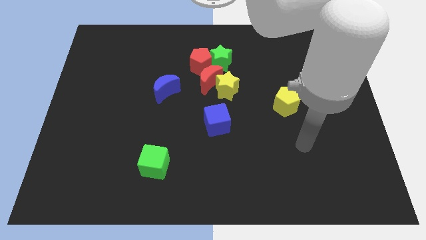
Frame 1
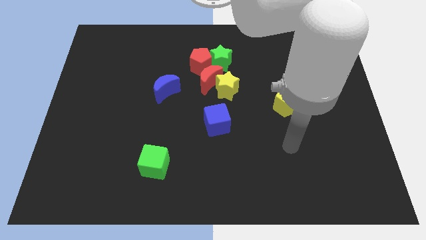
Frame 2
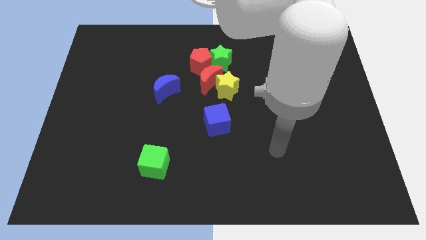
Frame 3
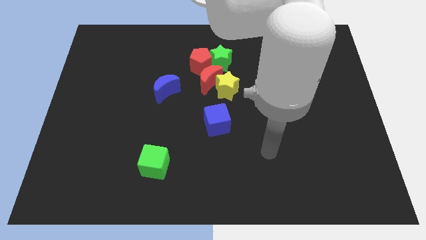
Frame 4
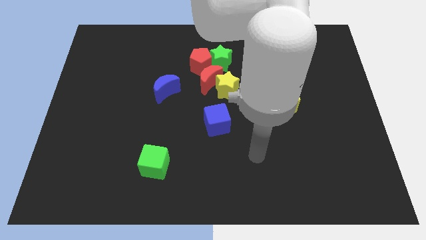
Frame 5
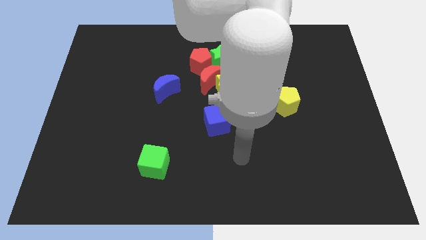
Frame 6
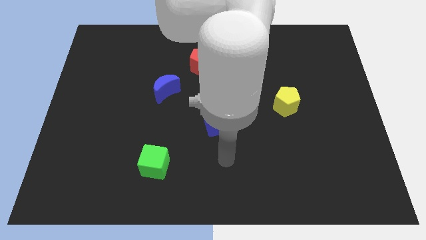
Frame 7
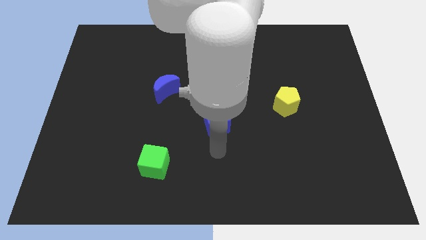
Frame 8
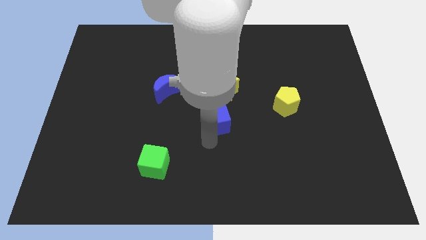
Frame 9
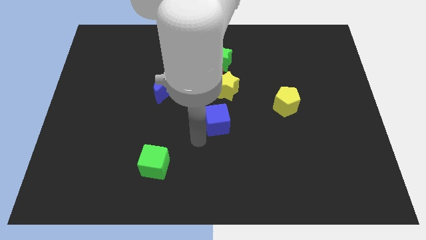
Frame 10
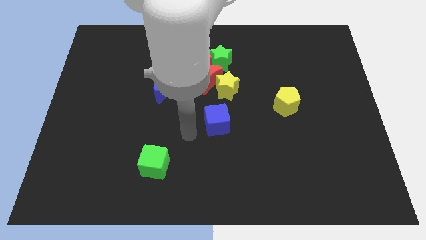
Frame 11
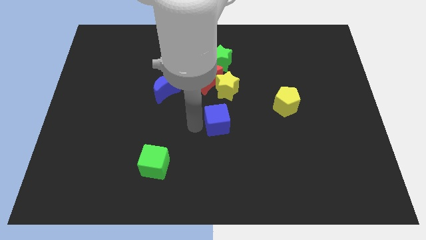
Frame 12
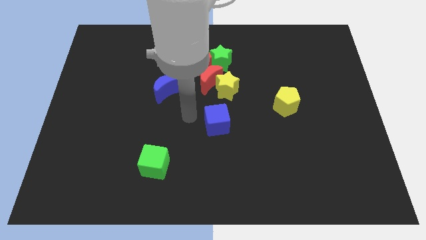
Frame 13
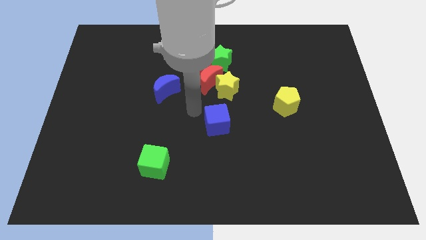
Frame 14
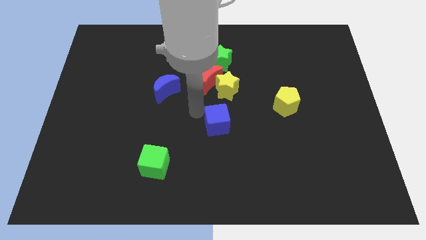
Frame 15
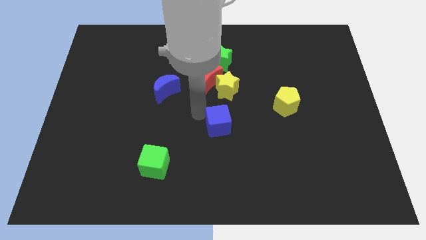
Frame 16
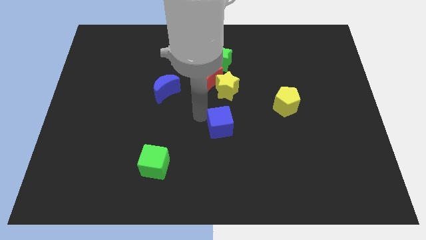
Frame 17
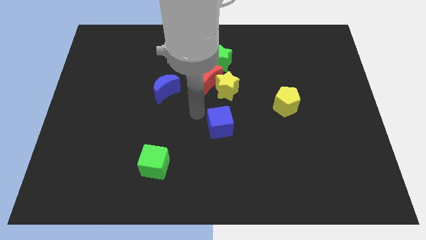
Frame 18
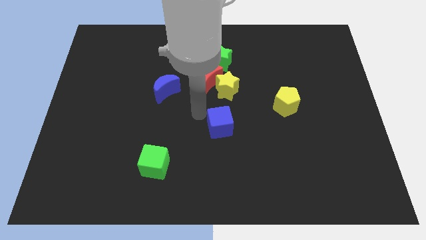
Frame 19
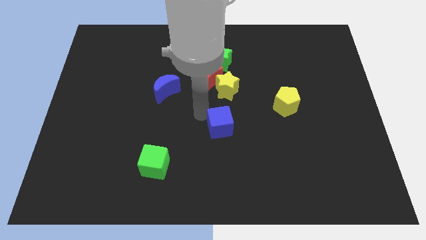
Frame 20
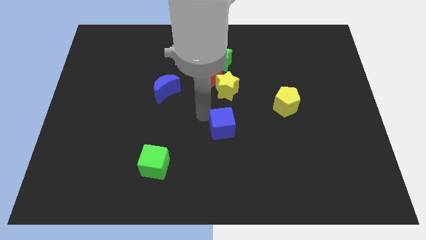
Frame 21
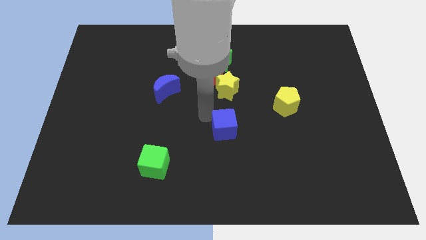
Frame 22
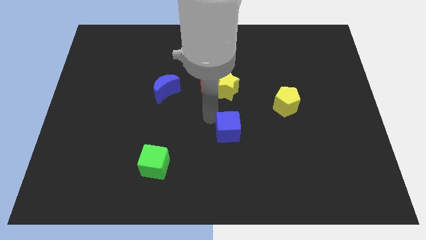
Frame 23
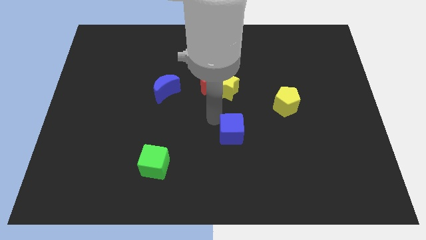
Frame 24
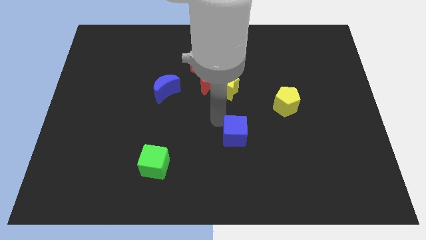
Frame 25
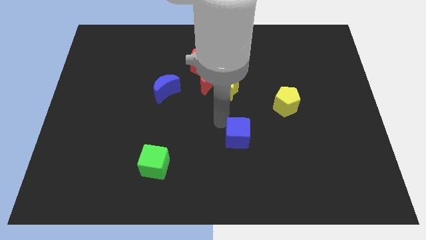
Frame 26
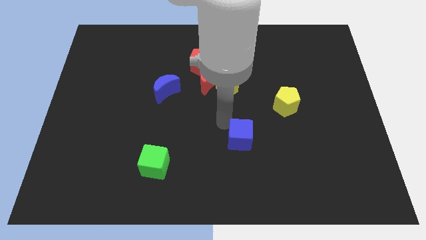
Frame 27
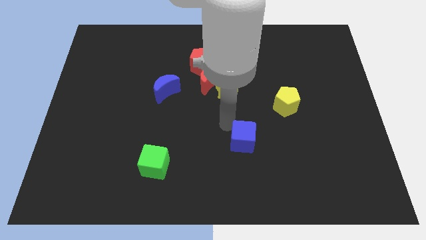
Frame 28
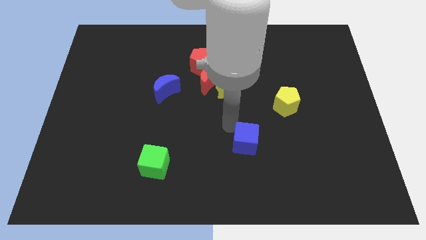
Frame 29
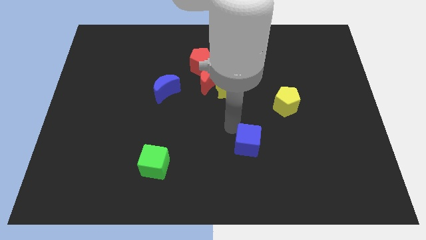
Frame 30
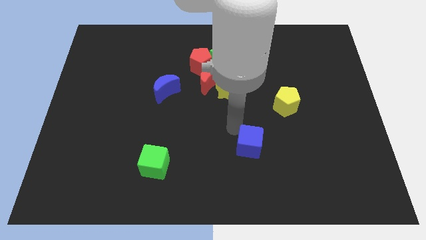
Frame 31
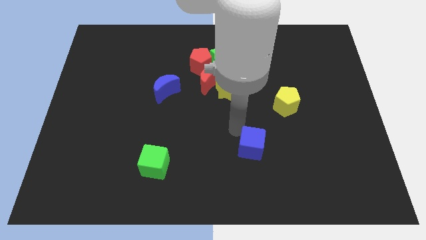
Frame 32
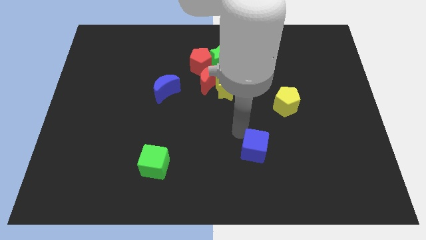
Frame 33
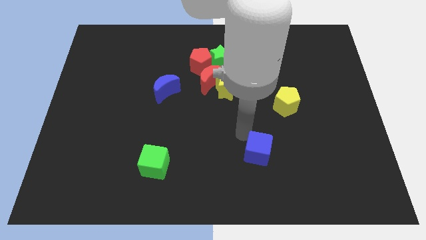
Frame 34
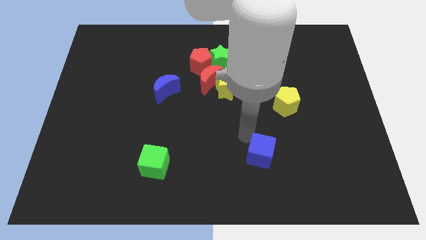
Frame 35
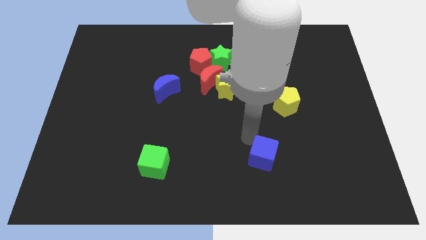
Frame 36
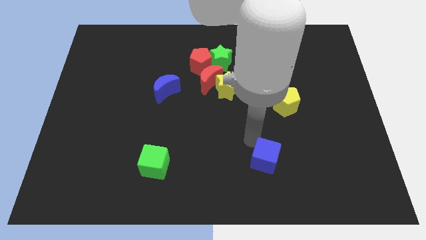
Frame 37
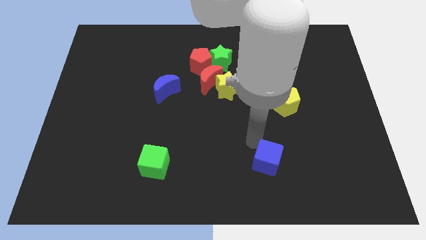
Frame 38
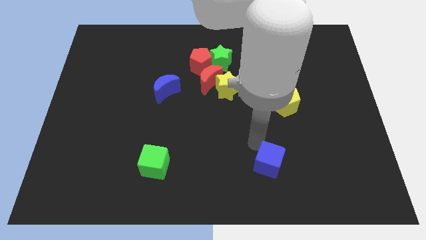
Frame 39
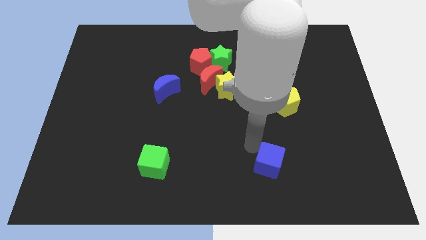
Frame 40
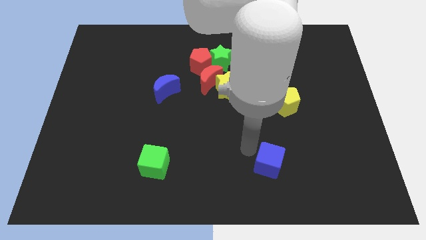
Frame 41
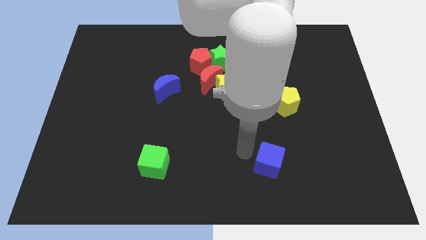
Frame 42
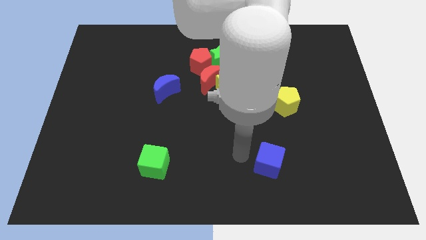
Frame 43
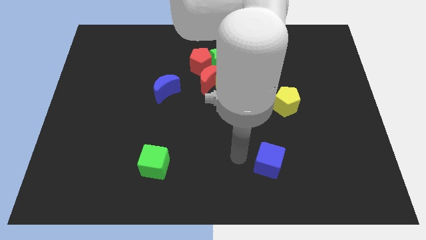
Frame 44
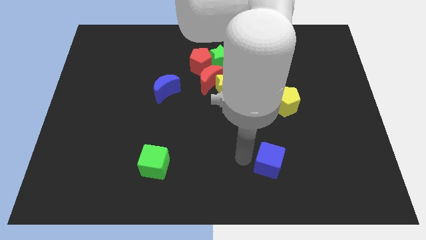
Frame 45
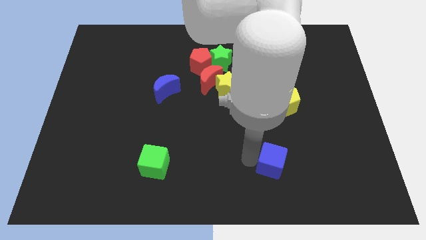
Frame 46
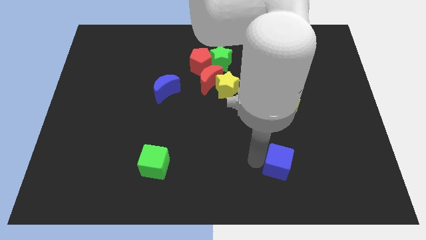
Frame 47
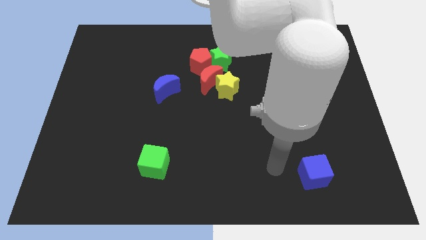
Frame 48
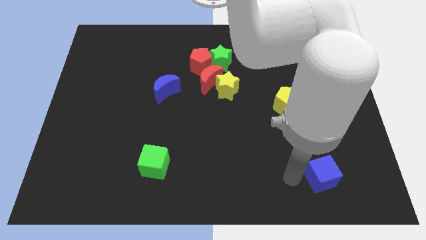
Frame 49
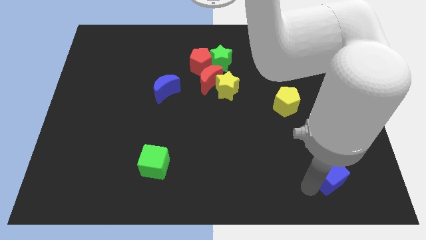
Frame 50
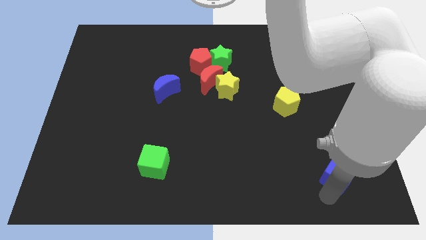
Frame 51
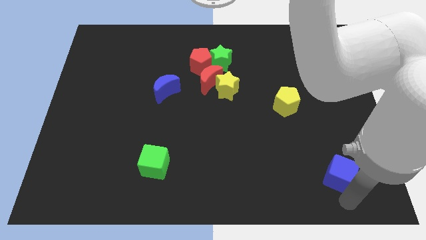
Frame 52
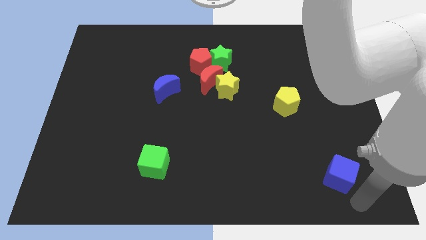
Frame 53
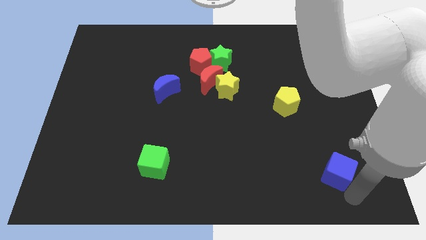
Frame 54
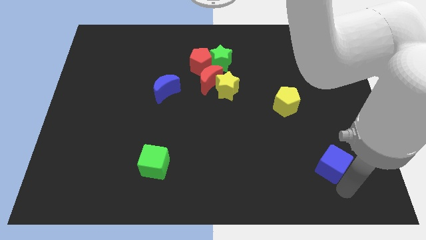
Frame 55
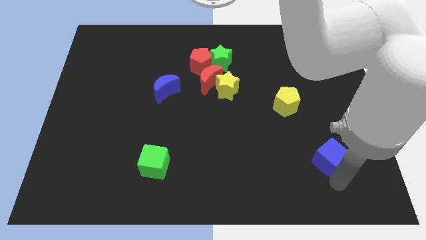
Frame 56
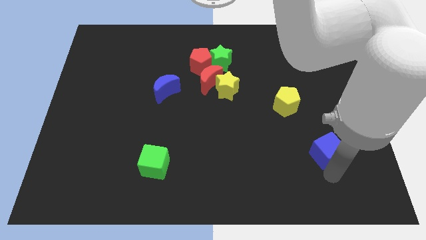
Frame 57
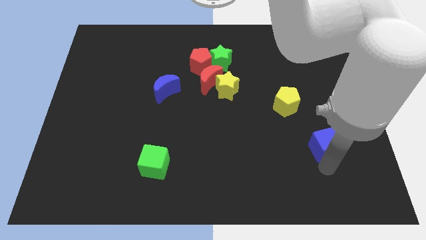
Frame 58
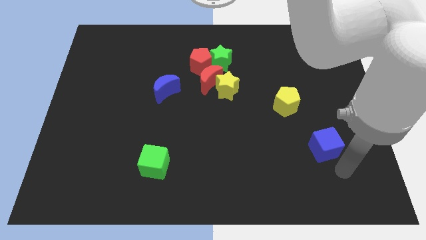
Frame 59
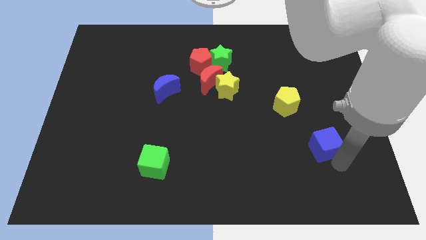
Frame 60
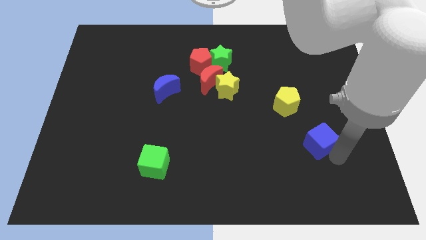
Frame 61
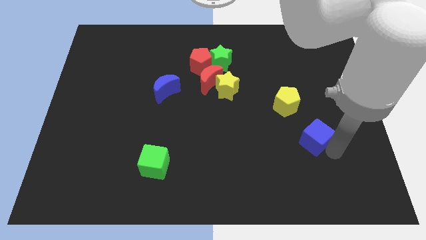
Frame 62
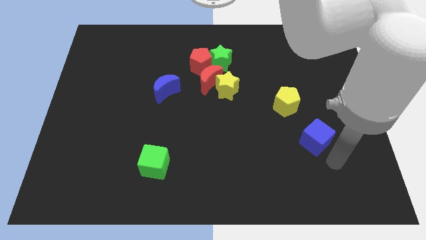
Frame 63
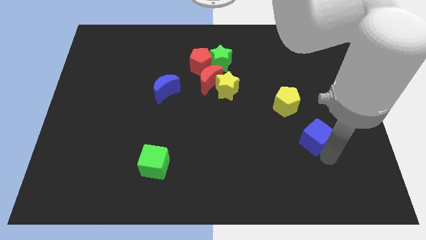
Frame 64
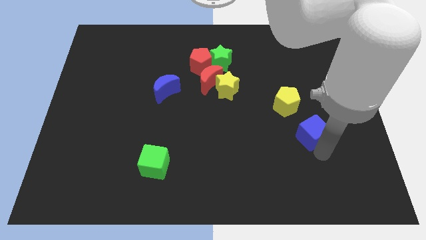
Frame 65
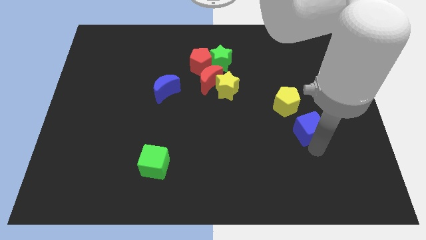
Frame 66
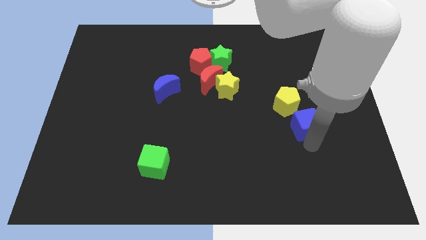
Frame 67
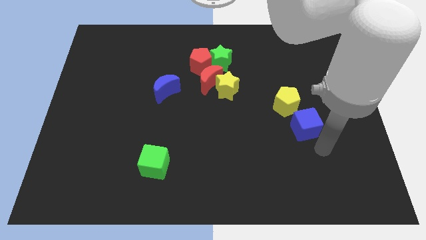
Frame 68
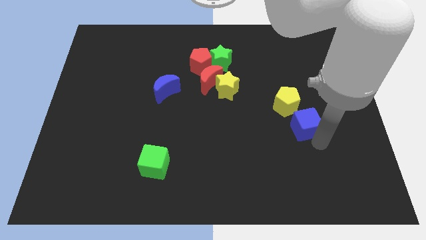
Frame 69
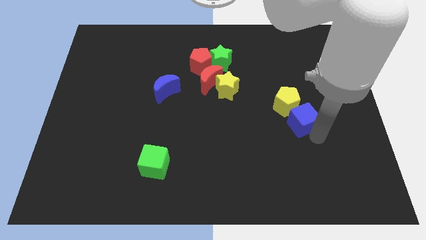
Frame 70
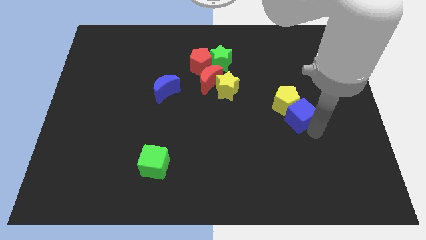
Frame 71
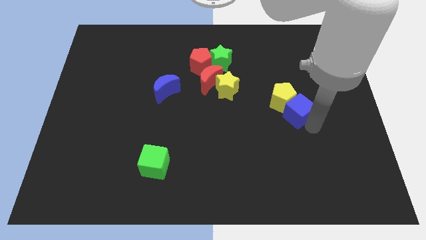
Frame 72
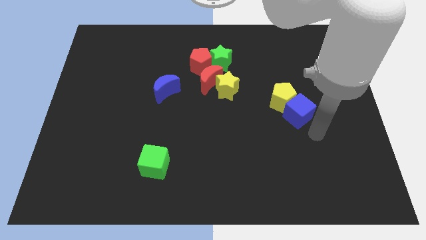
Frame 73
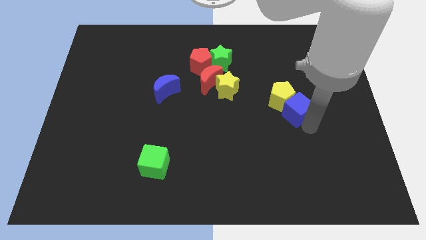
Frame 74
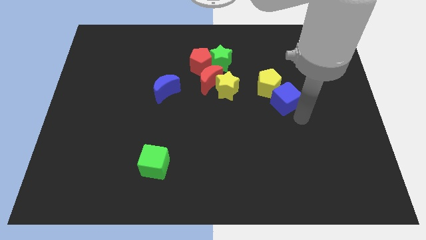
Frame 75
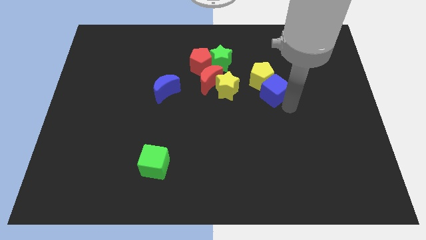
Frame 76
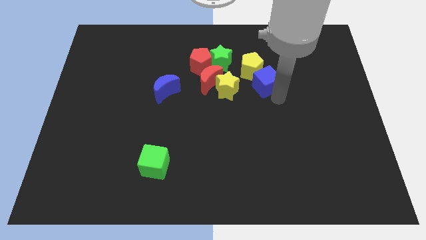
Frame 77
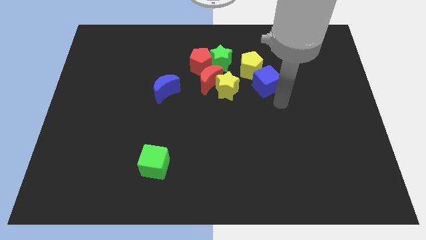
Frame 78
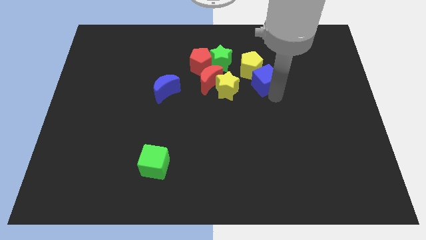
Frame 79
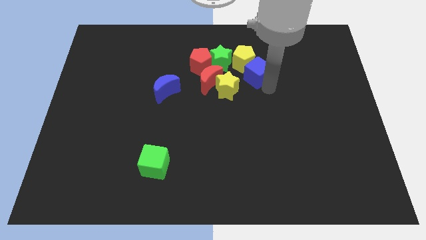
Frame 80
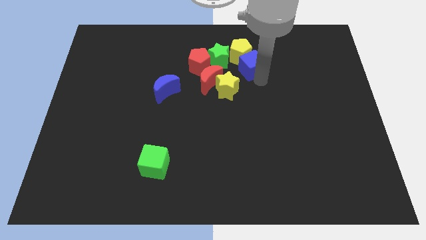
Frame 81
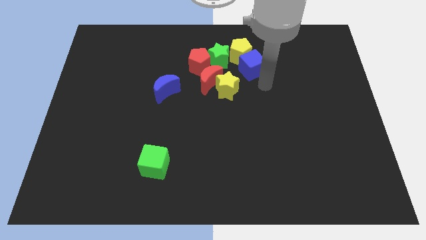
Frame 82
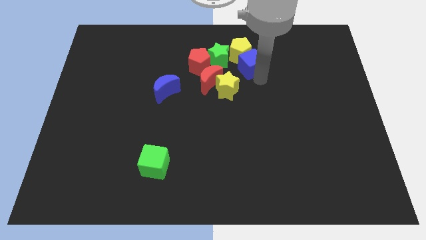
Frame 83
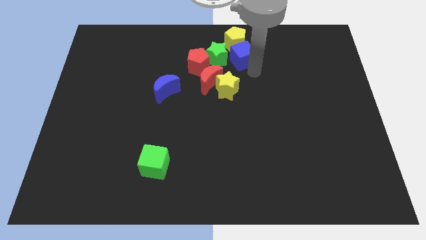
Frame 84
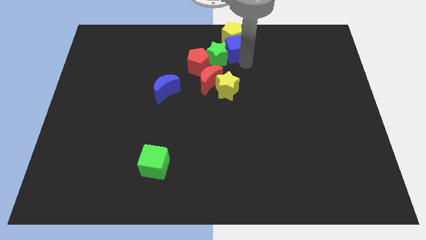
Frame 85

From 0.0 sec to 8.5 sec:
push the blue cube to the top side
